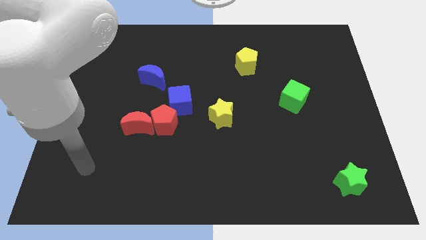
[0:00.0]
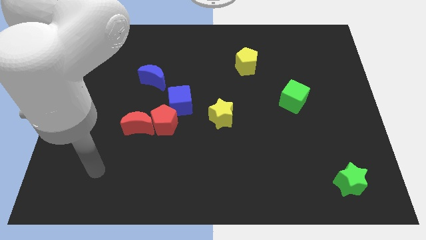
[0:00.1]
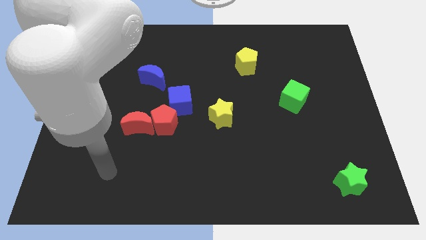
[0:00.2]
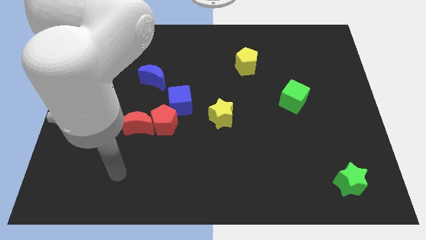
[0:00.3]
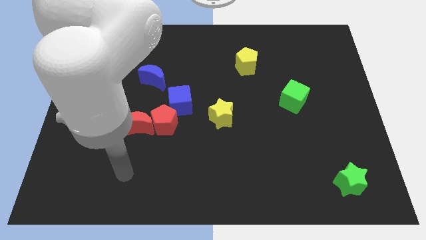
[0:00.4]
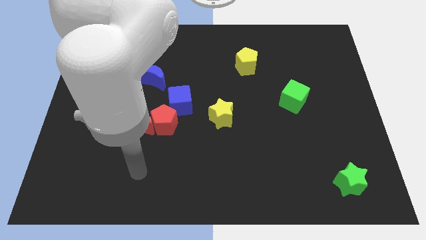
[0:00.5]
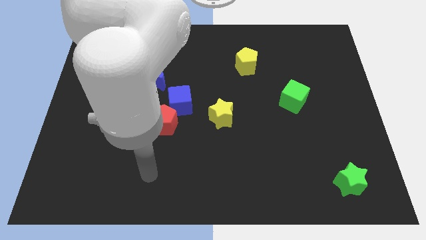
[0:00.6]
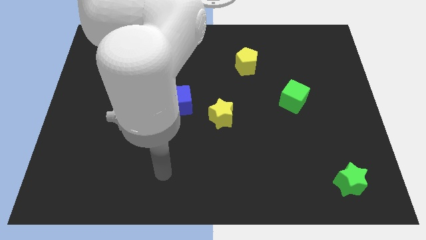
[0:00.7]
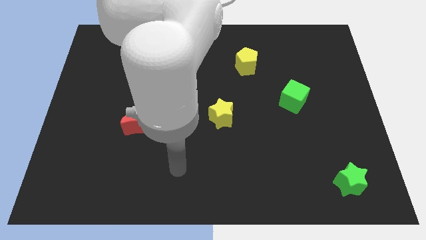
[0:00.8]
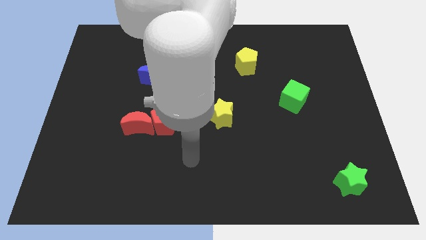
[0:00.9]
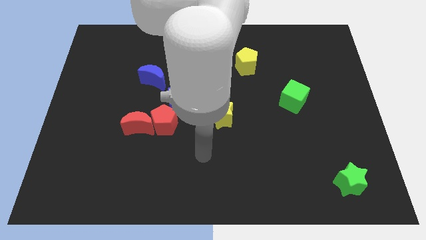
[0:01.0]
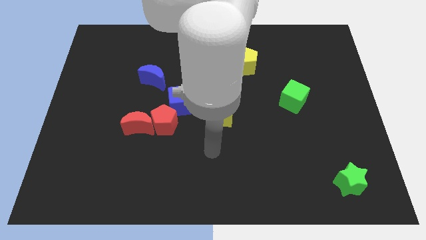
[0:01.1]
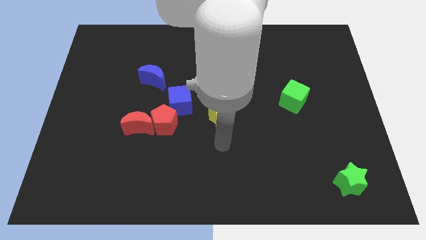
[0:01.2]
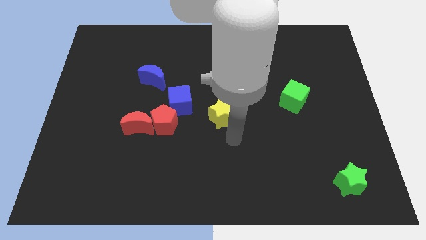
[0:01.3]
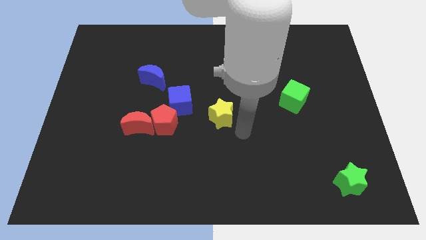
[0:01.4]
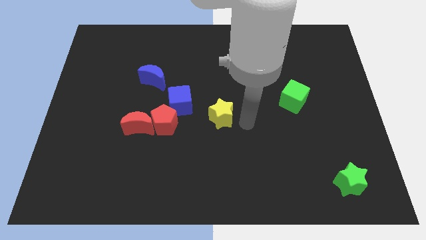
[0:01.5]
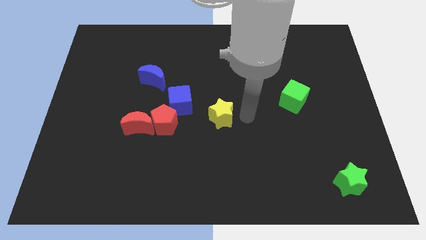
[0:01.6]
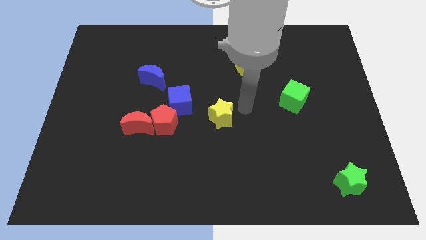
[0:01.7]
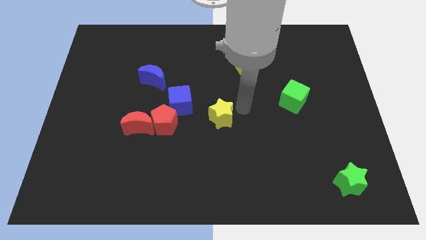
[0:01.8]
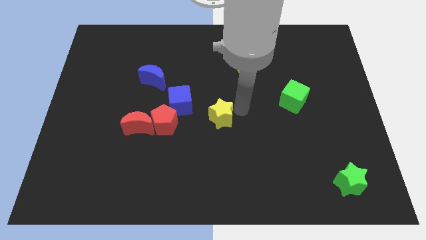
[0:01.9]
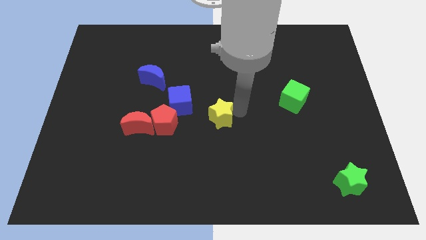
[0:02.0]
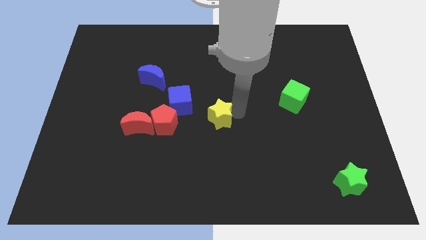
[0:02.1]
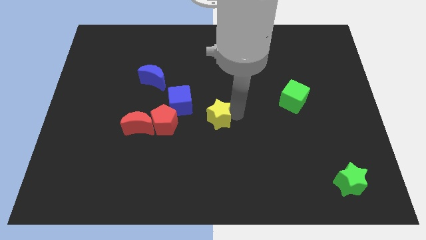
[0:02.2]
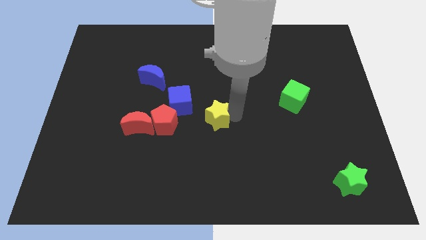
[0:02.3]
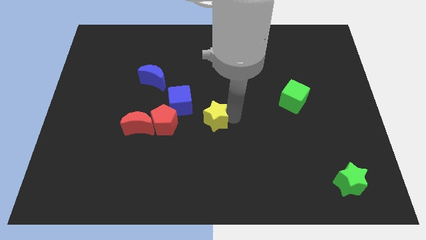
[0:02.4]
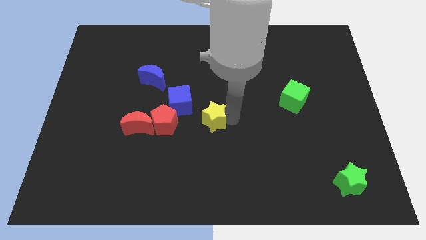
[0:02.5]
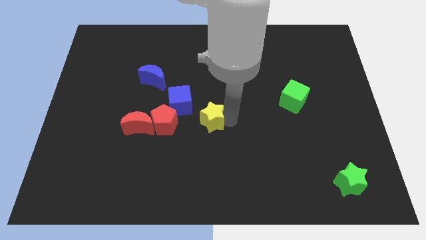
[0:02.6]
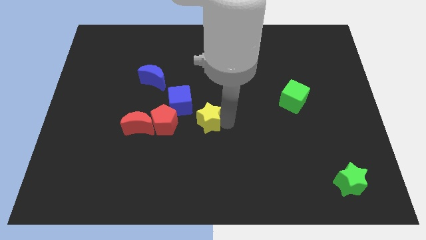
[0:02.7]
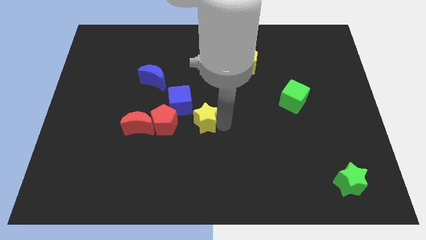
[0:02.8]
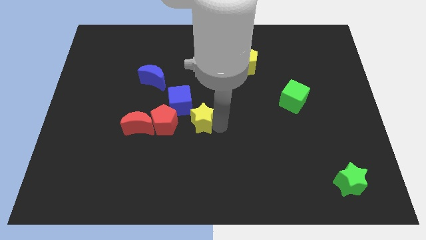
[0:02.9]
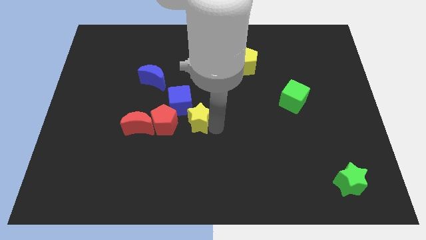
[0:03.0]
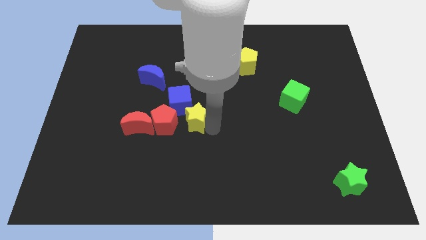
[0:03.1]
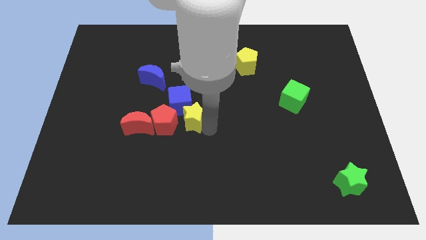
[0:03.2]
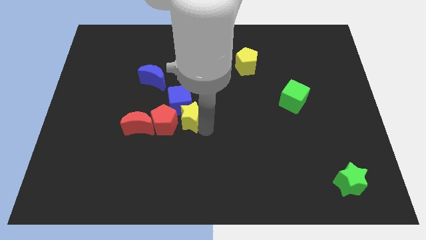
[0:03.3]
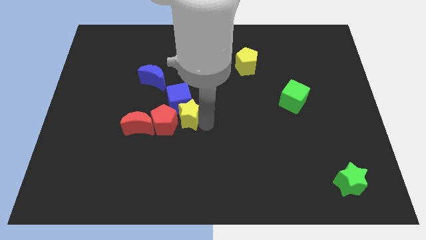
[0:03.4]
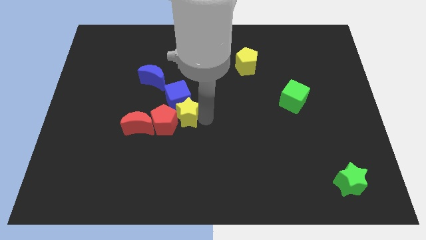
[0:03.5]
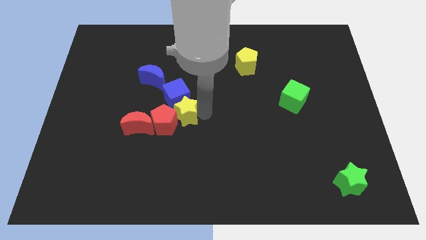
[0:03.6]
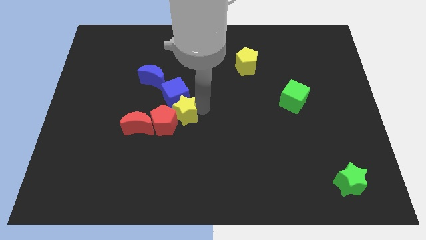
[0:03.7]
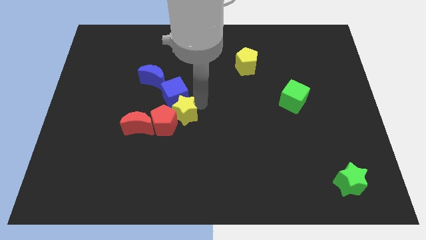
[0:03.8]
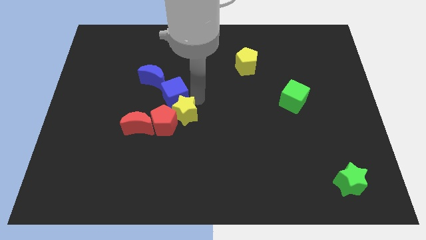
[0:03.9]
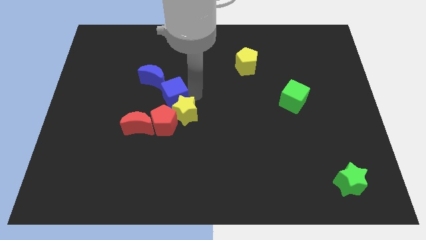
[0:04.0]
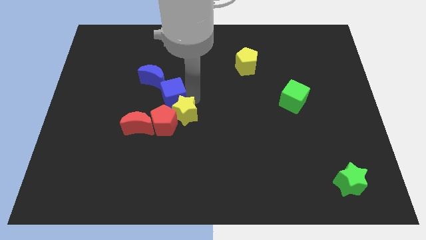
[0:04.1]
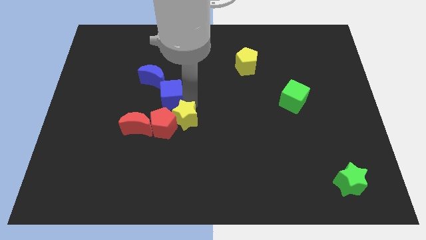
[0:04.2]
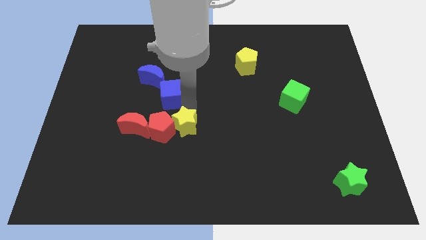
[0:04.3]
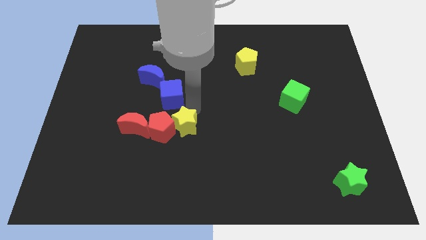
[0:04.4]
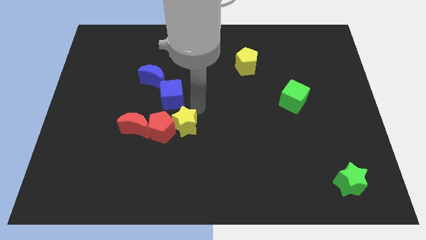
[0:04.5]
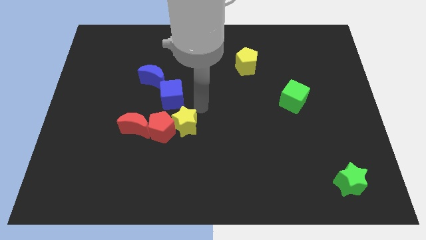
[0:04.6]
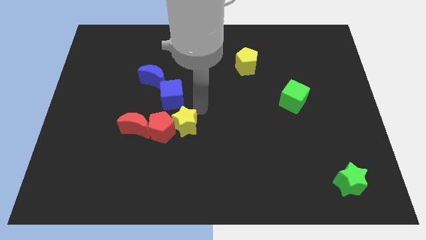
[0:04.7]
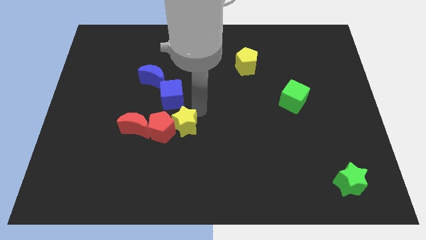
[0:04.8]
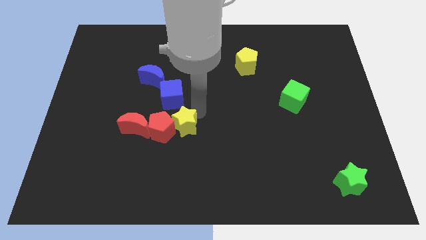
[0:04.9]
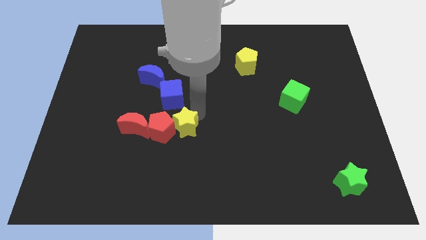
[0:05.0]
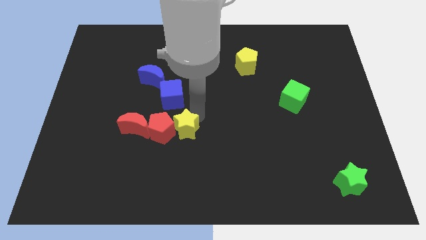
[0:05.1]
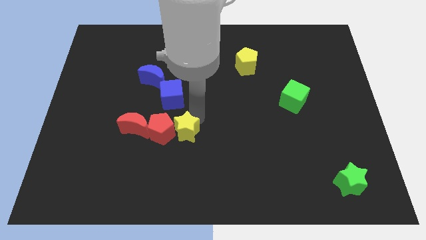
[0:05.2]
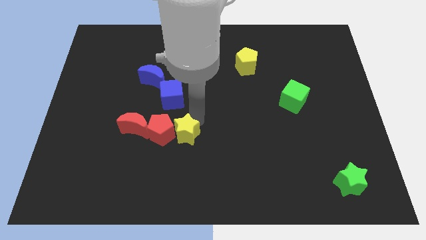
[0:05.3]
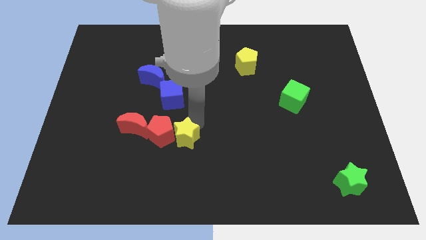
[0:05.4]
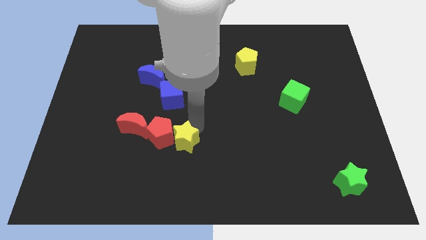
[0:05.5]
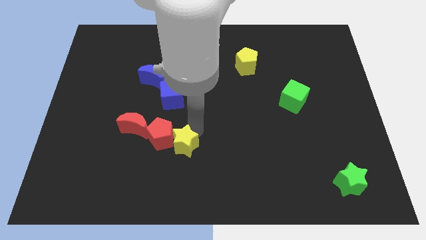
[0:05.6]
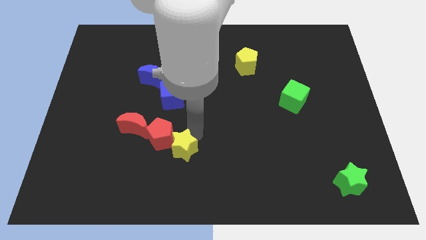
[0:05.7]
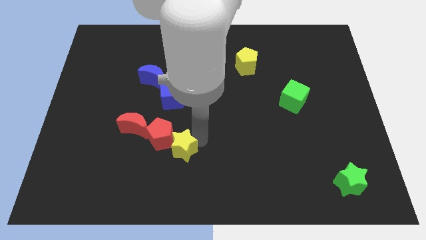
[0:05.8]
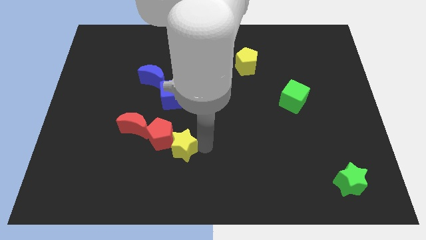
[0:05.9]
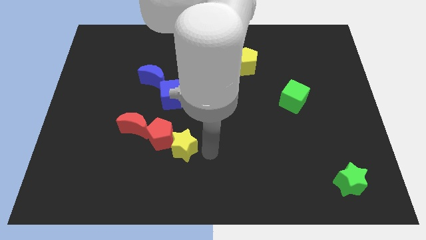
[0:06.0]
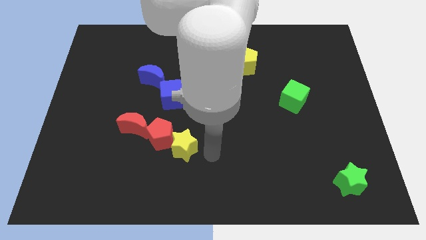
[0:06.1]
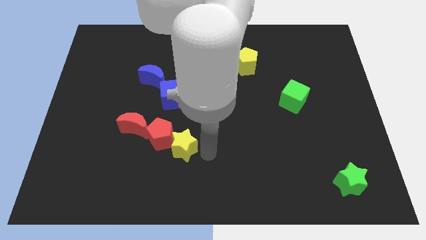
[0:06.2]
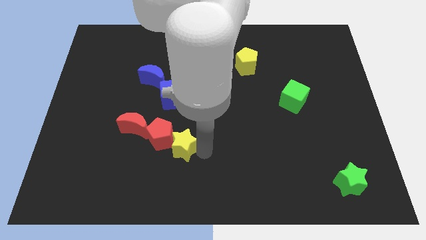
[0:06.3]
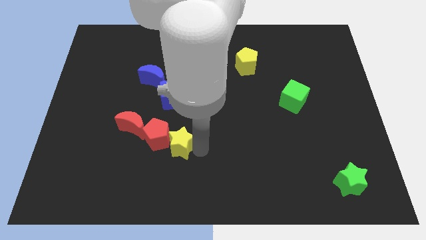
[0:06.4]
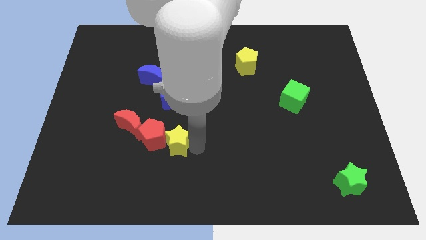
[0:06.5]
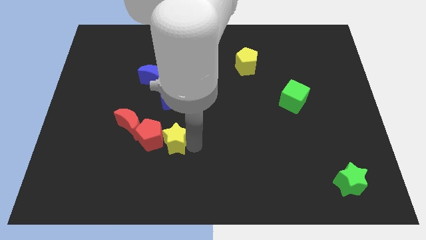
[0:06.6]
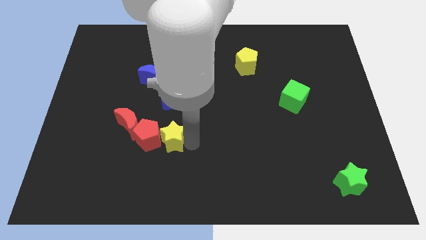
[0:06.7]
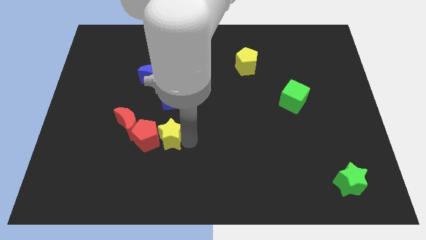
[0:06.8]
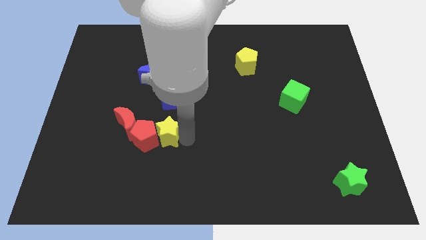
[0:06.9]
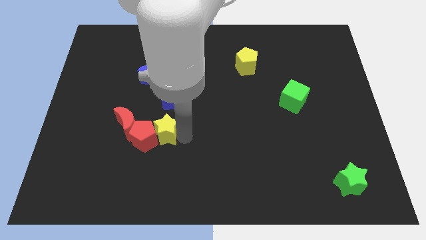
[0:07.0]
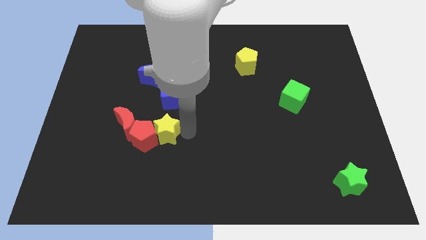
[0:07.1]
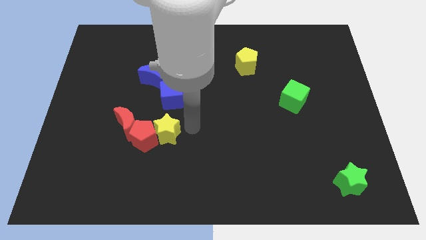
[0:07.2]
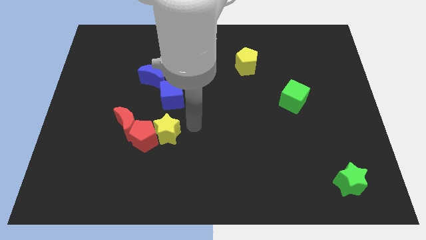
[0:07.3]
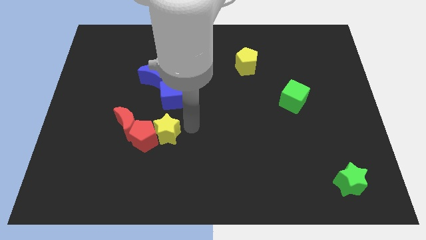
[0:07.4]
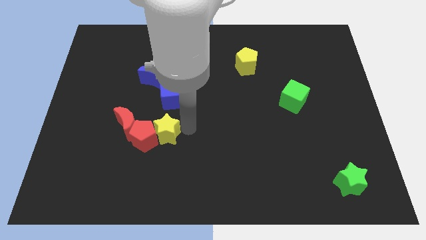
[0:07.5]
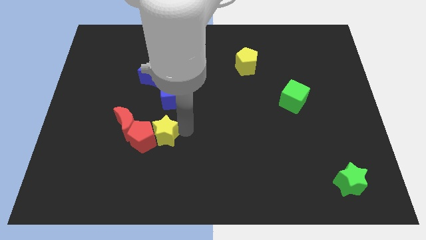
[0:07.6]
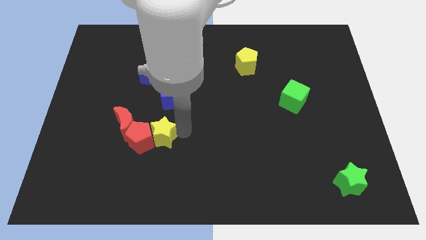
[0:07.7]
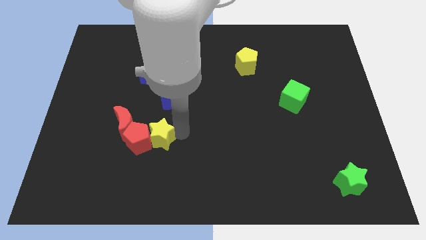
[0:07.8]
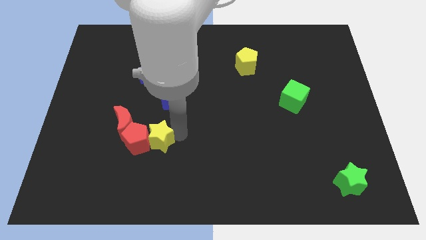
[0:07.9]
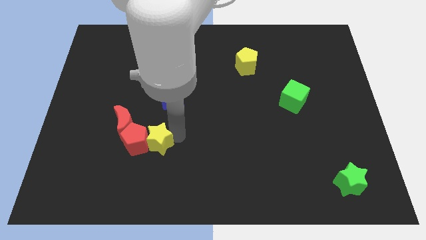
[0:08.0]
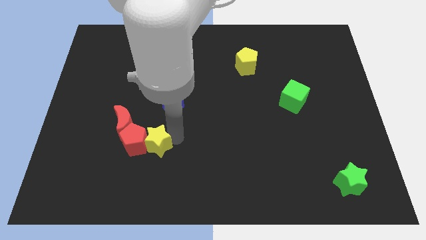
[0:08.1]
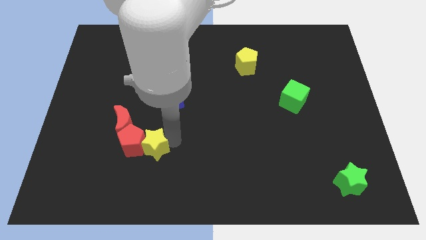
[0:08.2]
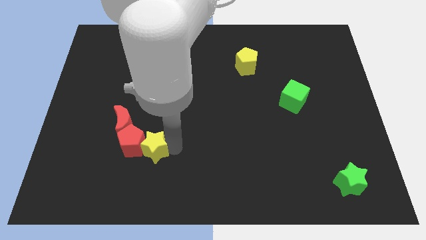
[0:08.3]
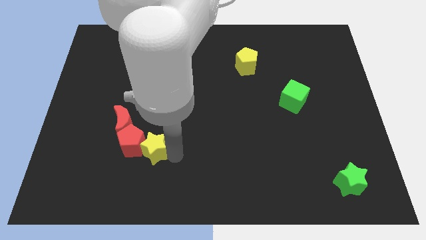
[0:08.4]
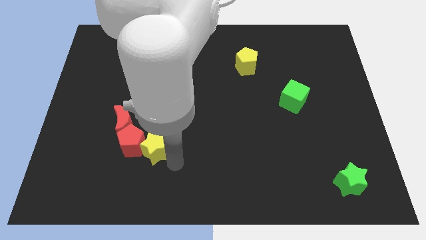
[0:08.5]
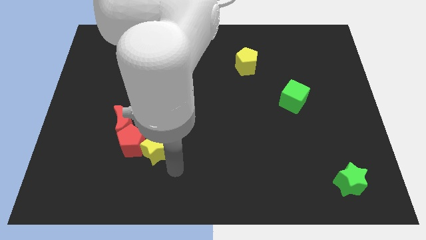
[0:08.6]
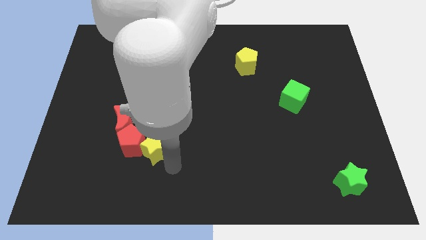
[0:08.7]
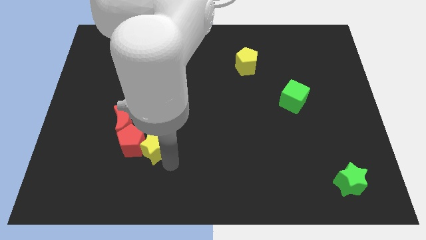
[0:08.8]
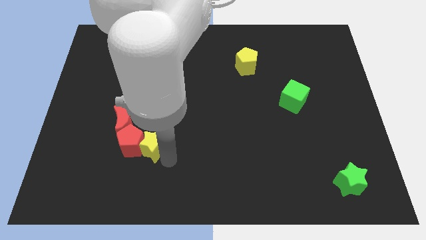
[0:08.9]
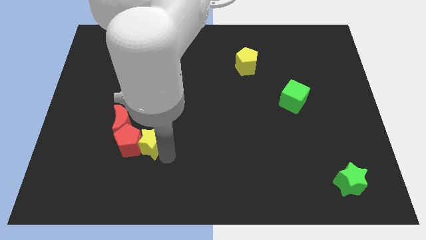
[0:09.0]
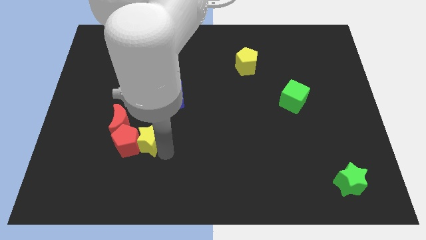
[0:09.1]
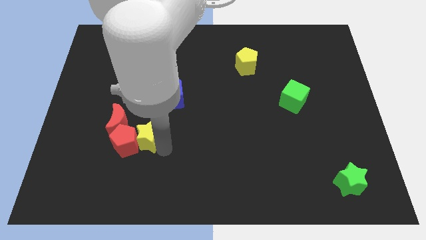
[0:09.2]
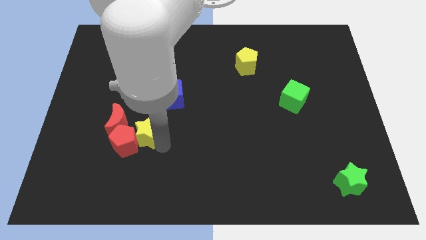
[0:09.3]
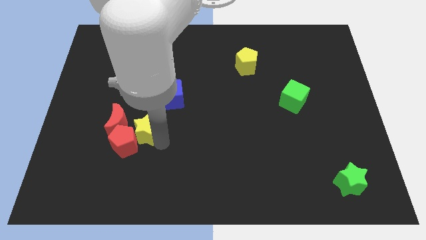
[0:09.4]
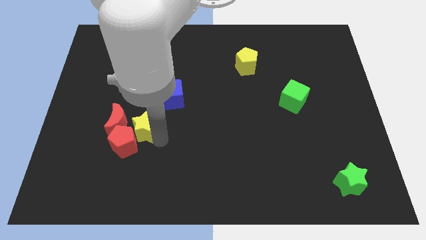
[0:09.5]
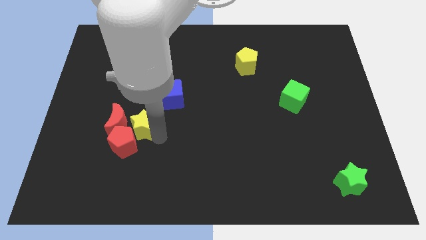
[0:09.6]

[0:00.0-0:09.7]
slide the yellow star towards the red moon
